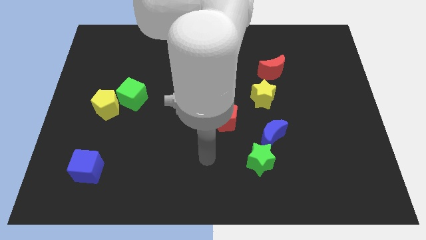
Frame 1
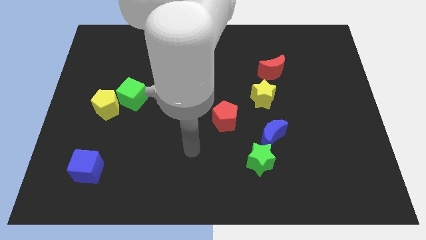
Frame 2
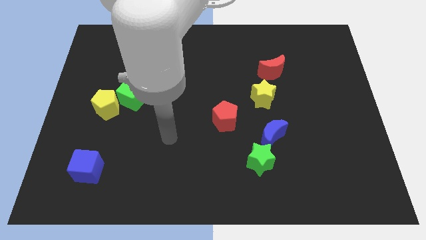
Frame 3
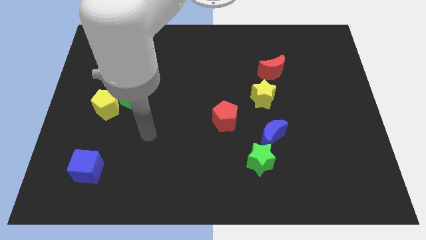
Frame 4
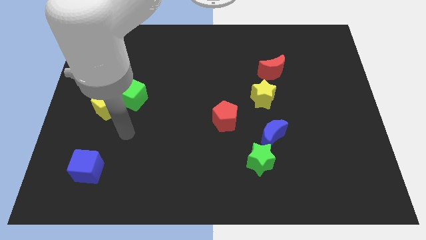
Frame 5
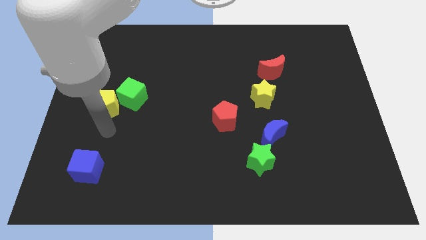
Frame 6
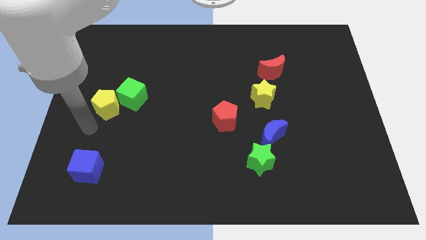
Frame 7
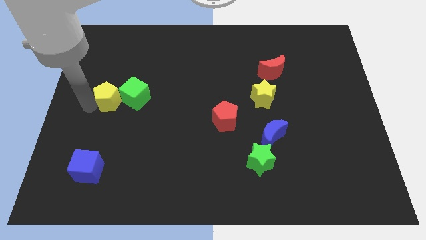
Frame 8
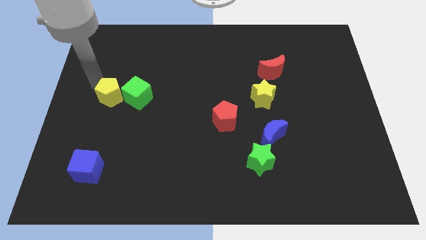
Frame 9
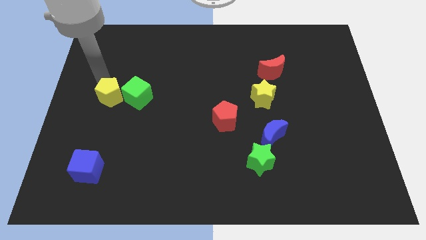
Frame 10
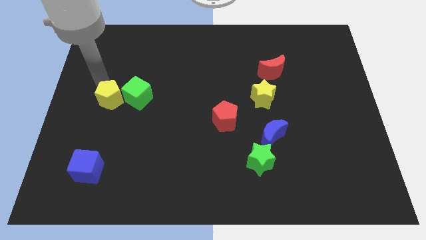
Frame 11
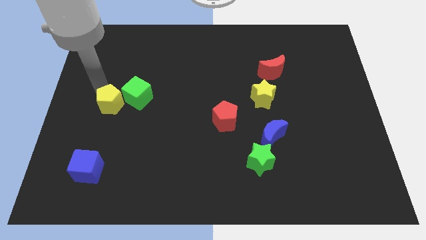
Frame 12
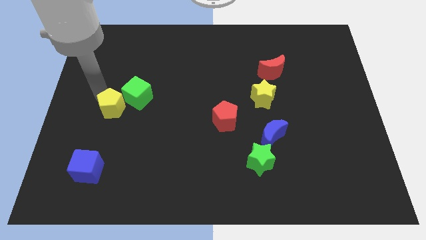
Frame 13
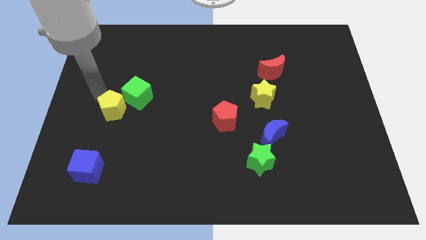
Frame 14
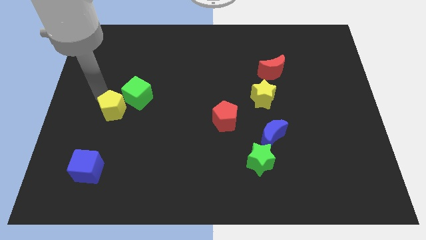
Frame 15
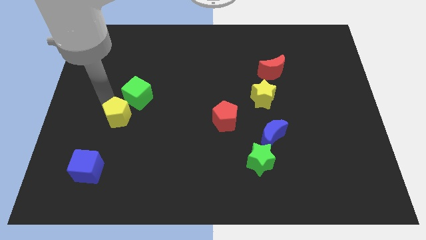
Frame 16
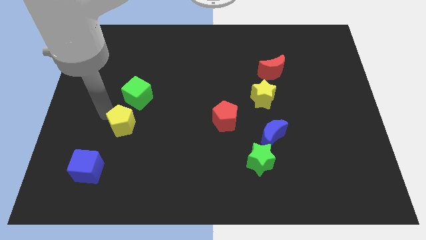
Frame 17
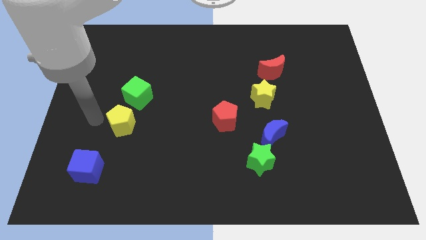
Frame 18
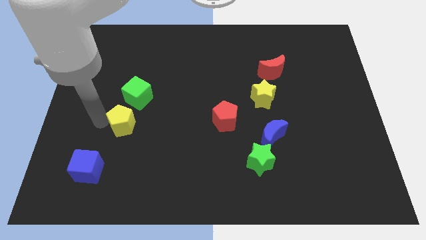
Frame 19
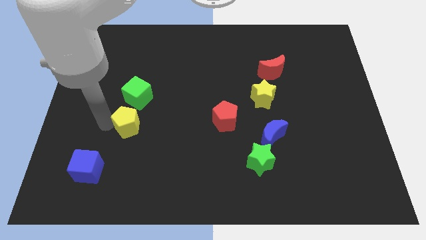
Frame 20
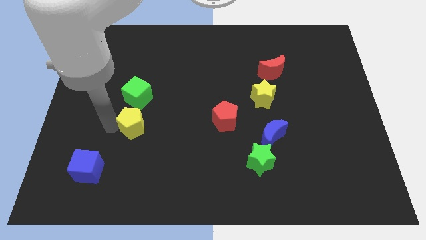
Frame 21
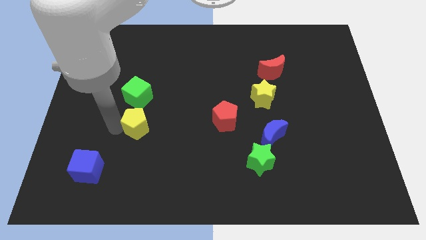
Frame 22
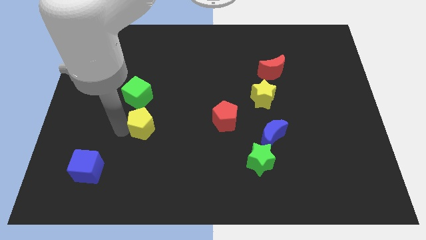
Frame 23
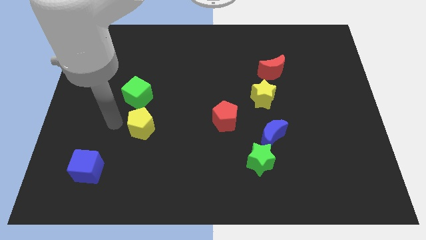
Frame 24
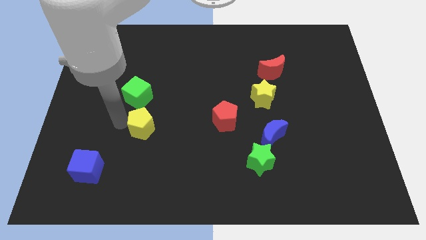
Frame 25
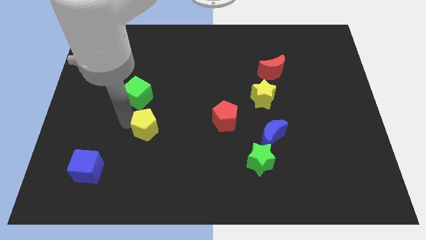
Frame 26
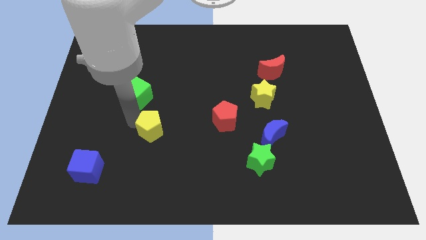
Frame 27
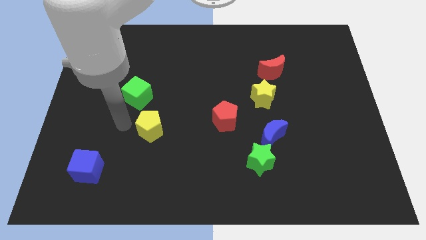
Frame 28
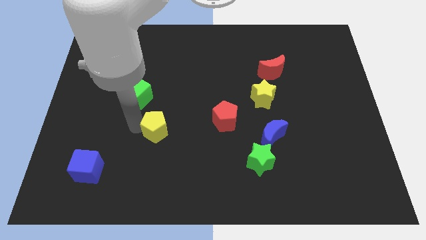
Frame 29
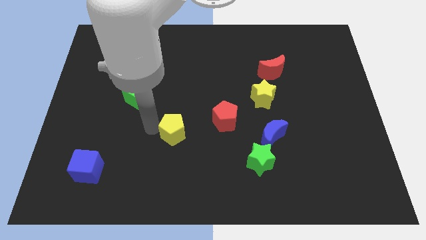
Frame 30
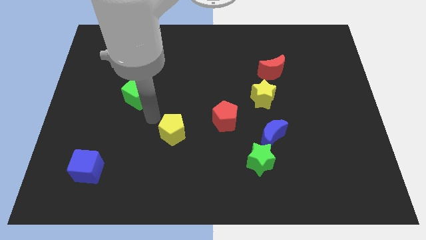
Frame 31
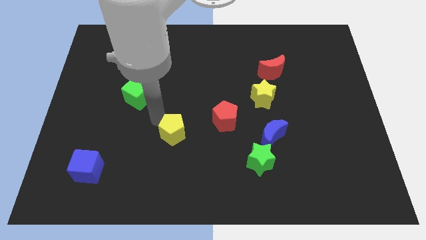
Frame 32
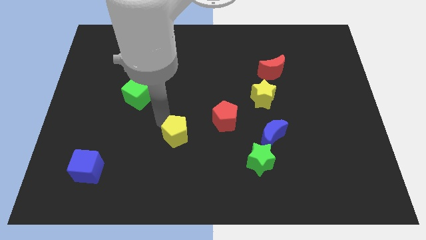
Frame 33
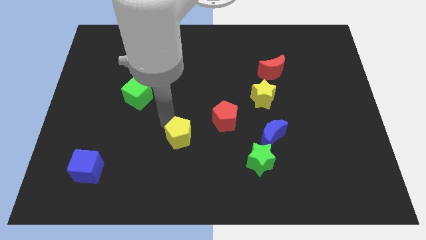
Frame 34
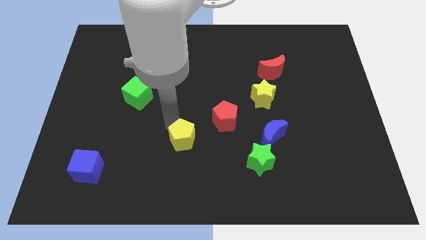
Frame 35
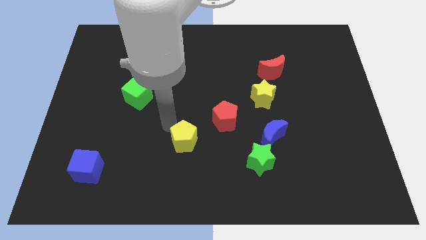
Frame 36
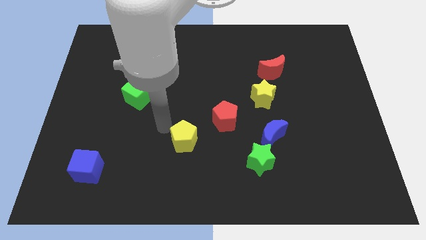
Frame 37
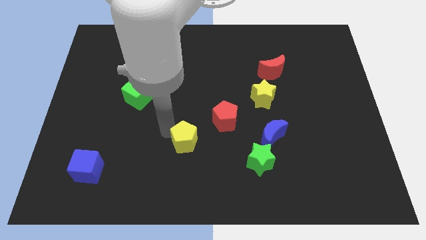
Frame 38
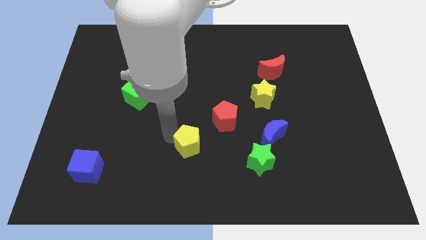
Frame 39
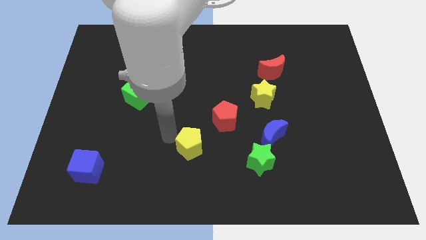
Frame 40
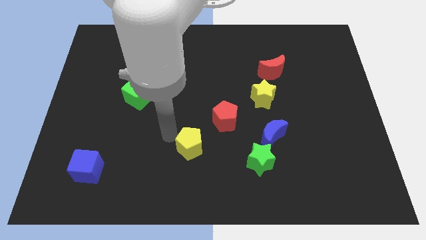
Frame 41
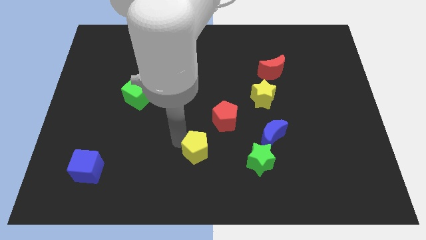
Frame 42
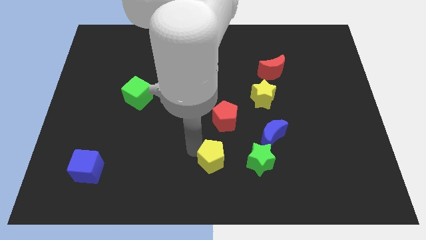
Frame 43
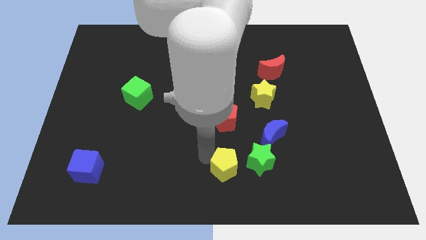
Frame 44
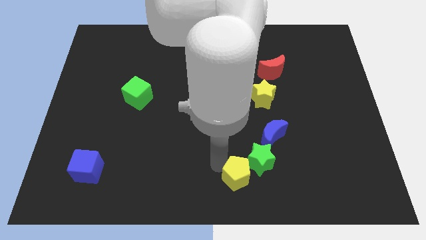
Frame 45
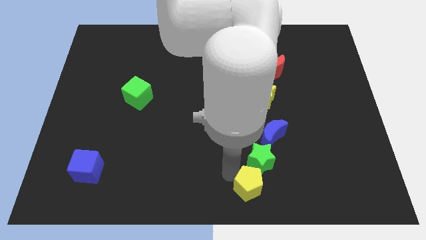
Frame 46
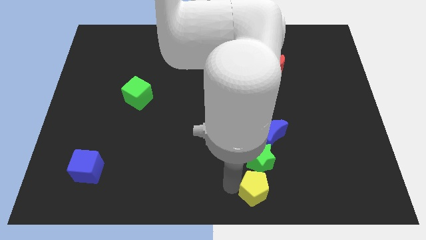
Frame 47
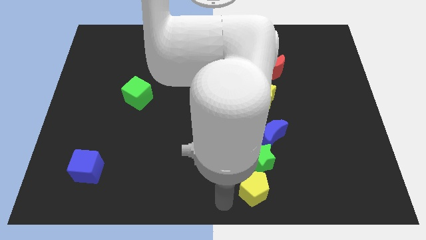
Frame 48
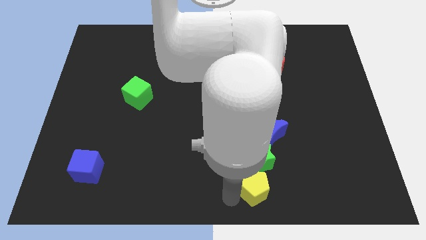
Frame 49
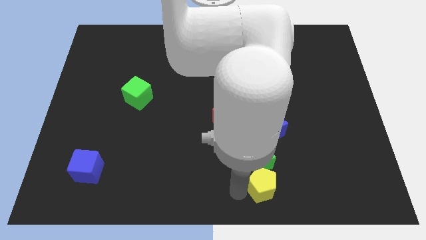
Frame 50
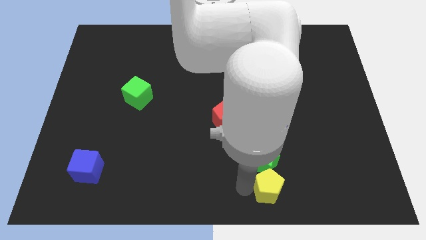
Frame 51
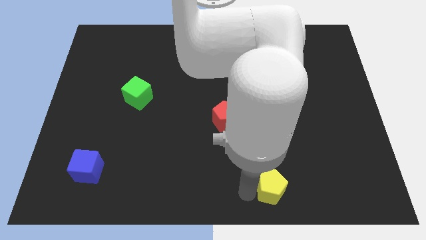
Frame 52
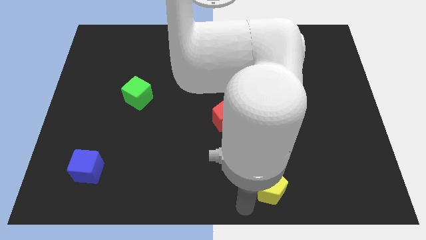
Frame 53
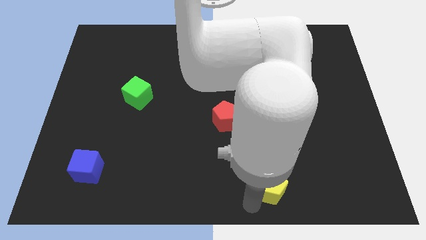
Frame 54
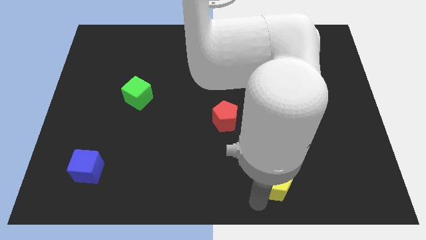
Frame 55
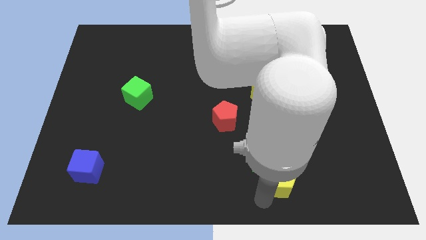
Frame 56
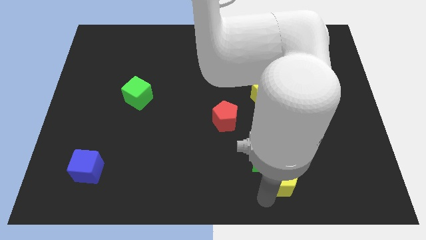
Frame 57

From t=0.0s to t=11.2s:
push the yellow pentagon right of the green star

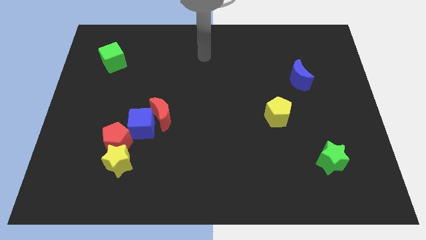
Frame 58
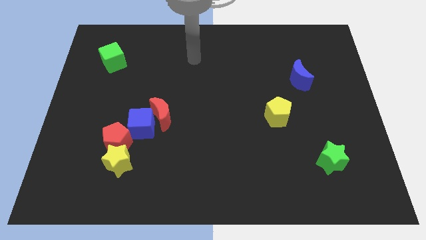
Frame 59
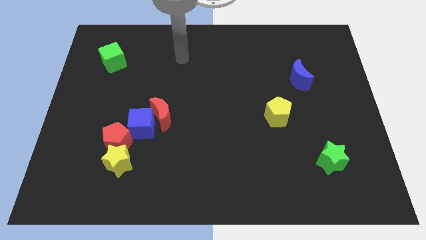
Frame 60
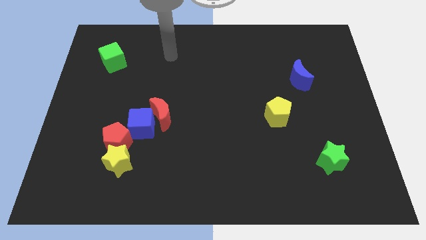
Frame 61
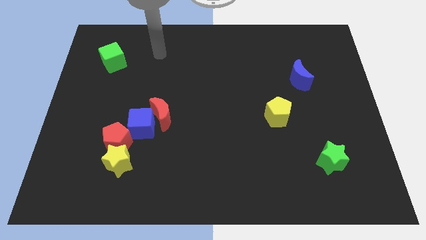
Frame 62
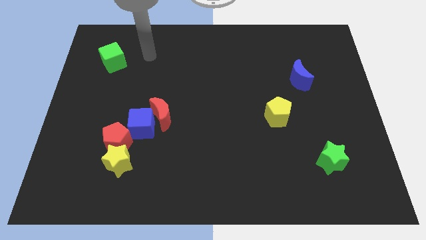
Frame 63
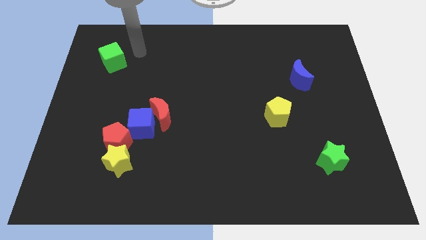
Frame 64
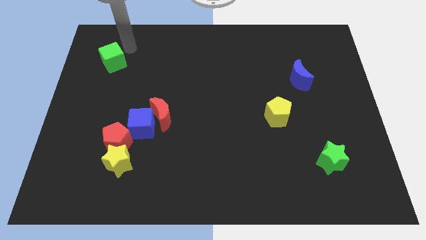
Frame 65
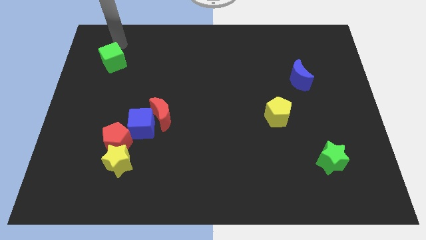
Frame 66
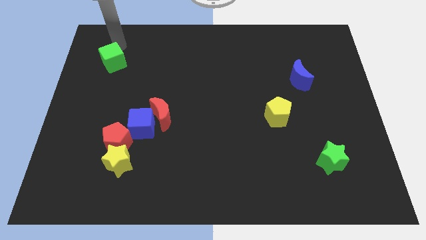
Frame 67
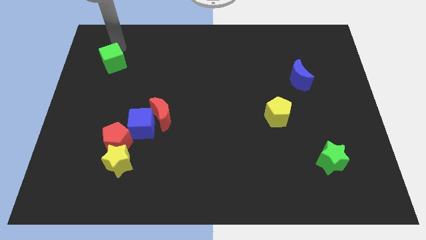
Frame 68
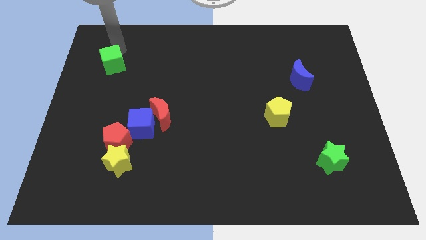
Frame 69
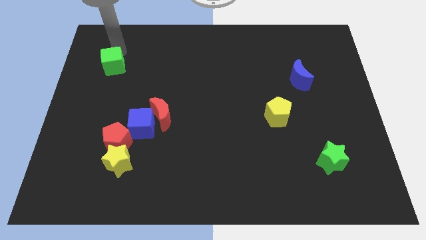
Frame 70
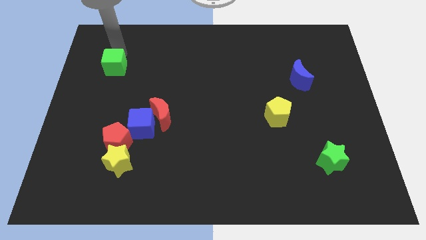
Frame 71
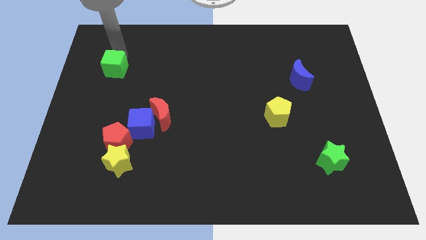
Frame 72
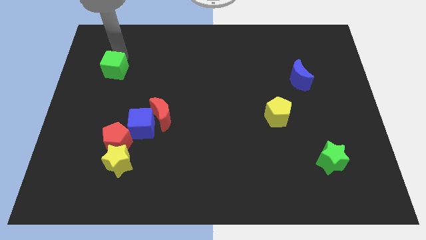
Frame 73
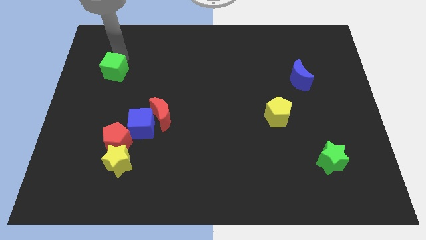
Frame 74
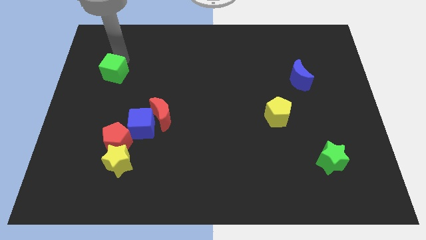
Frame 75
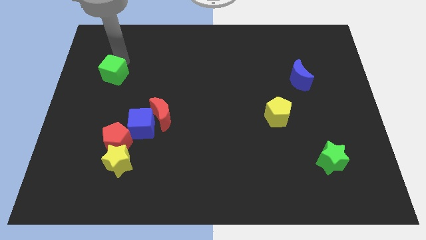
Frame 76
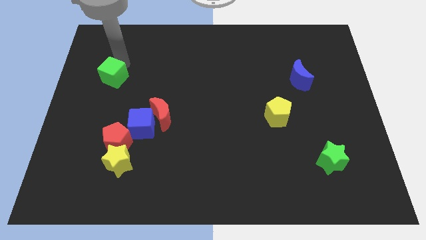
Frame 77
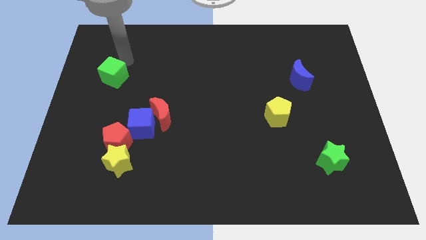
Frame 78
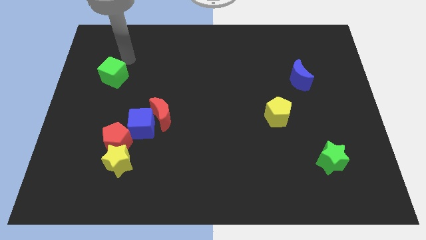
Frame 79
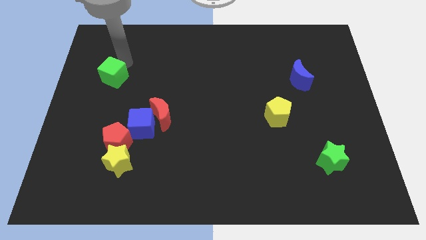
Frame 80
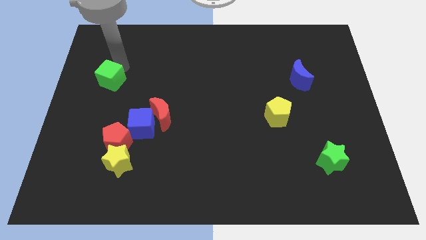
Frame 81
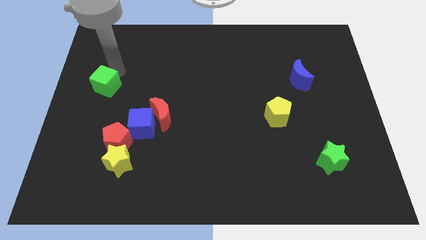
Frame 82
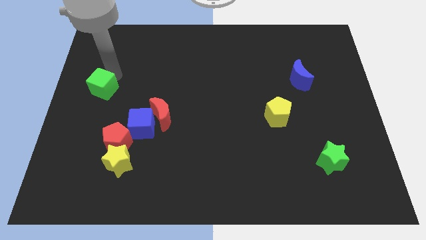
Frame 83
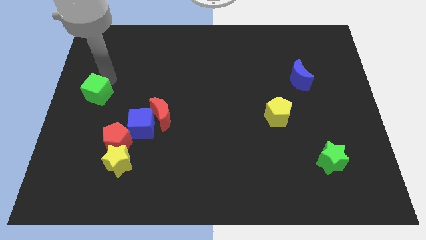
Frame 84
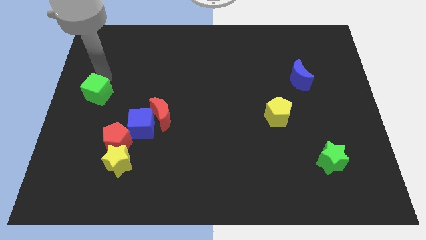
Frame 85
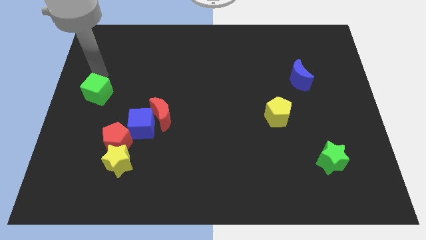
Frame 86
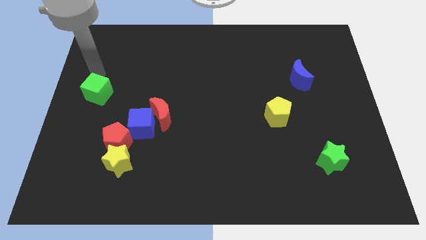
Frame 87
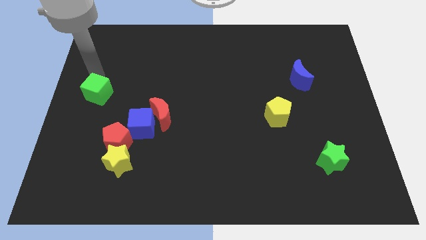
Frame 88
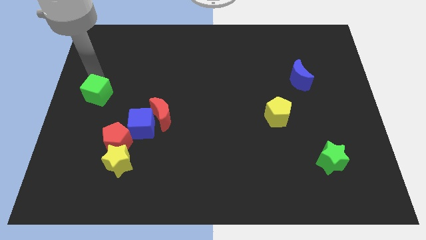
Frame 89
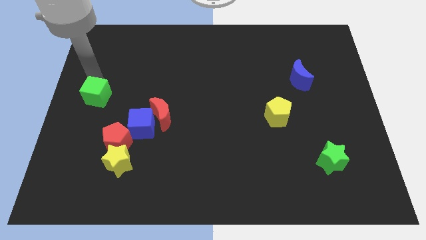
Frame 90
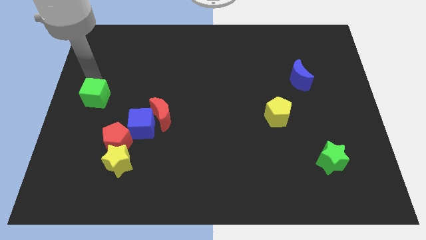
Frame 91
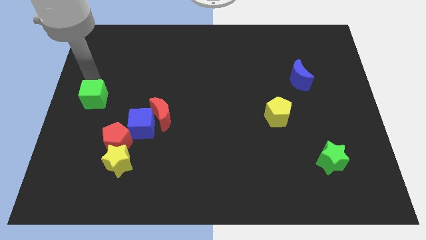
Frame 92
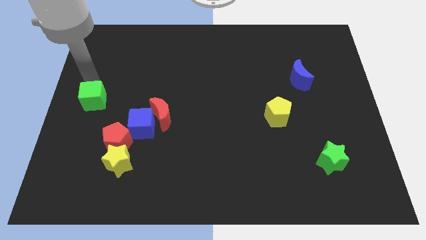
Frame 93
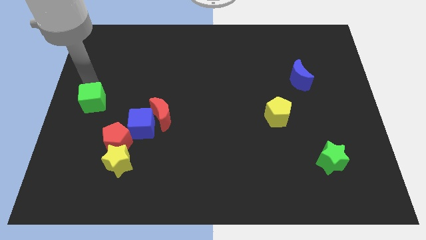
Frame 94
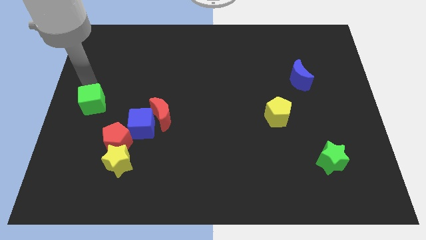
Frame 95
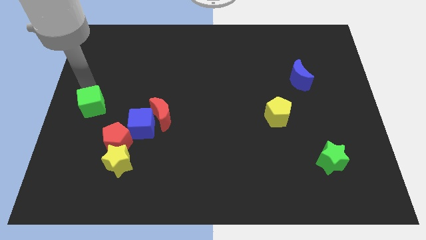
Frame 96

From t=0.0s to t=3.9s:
push the green cube to the top left side of the red pentagon
